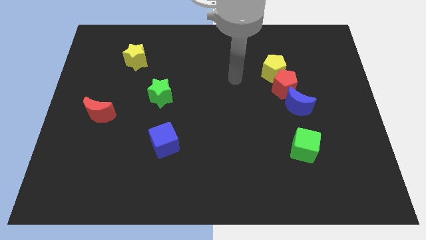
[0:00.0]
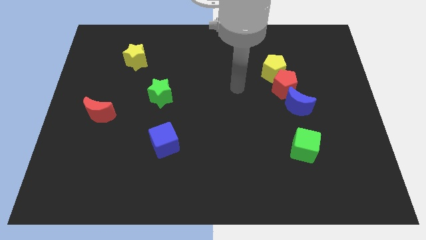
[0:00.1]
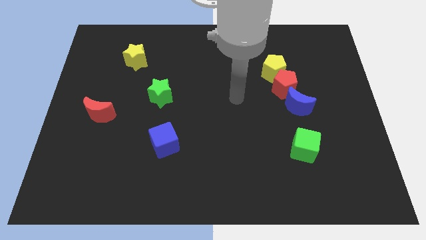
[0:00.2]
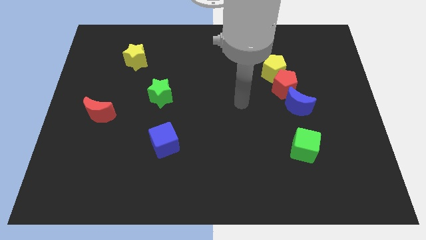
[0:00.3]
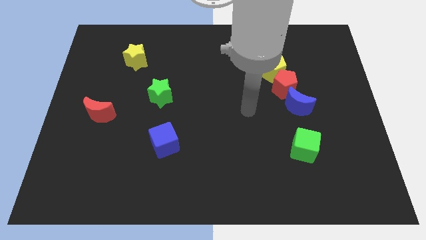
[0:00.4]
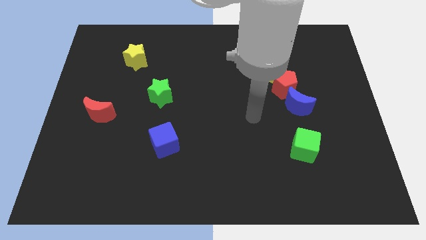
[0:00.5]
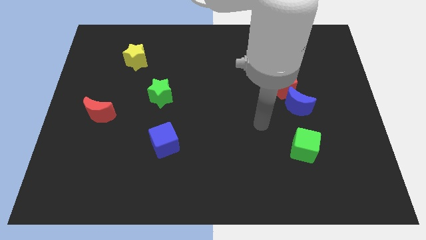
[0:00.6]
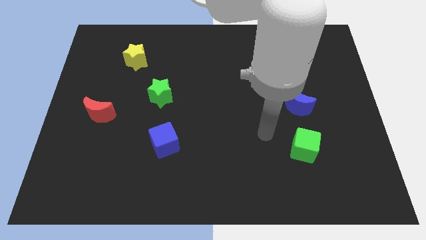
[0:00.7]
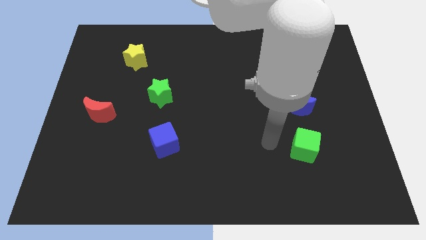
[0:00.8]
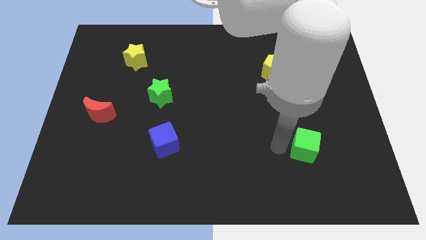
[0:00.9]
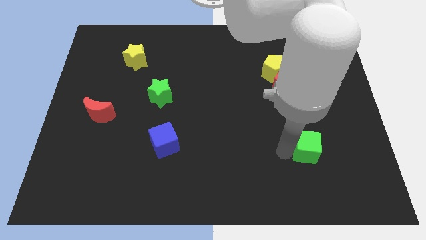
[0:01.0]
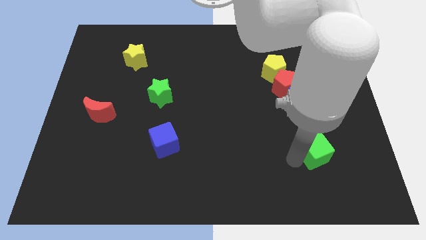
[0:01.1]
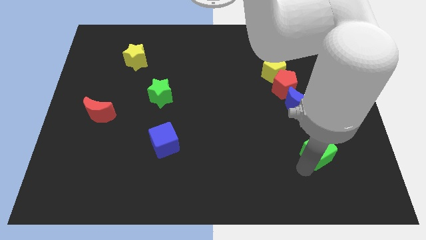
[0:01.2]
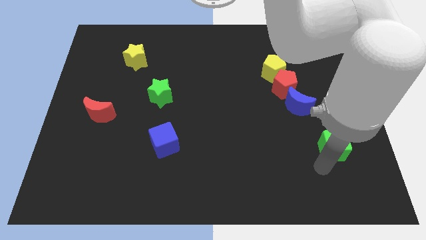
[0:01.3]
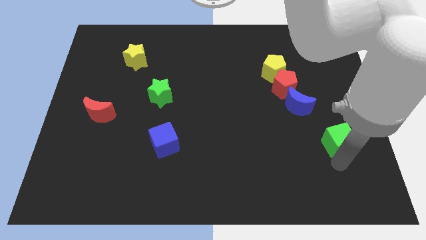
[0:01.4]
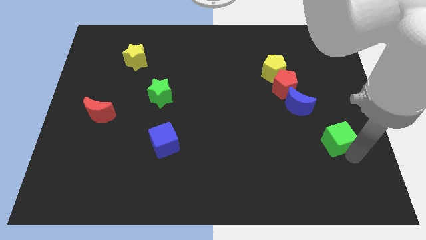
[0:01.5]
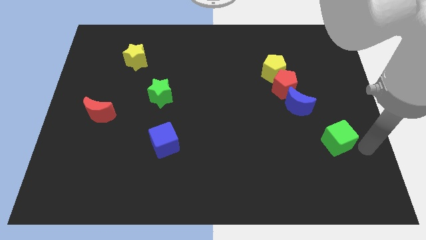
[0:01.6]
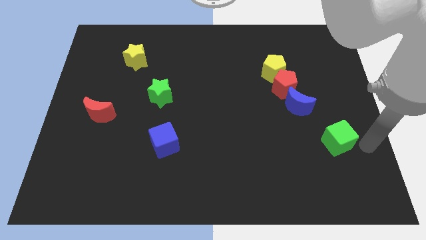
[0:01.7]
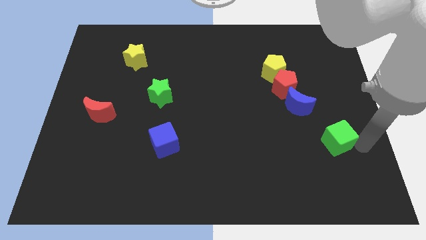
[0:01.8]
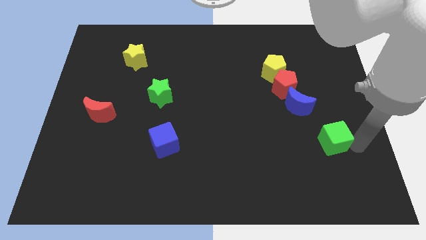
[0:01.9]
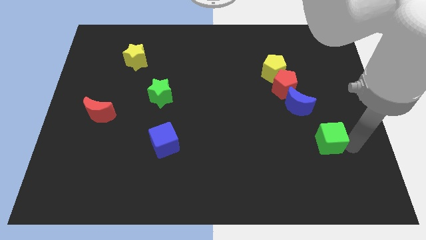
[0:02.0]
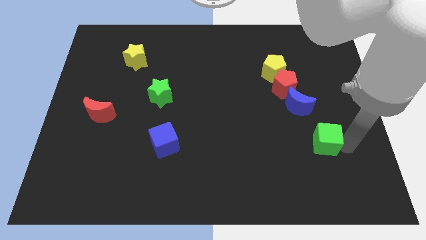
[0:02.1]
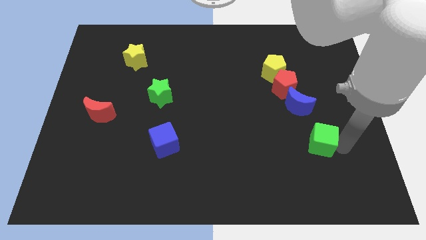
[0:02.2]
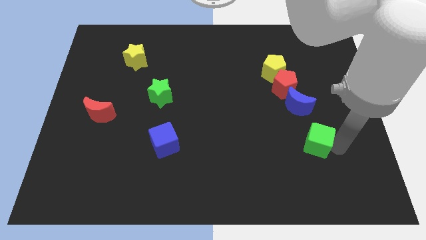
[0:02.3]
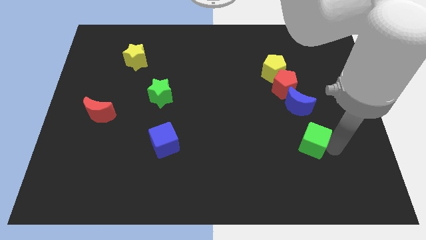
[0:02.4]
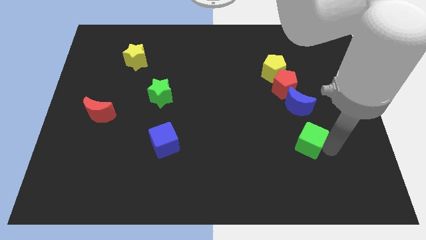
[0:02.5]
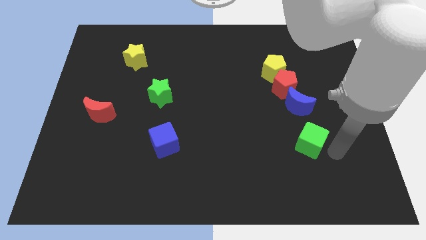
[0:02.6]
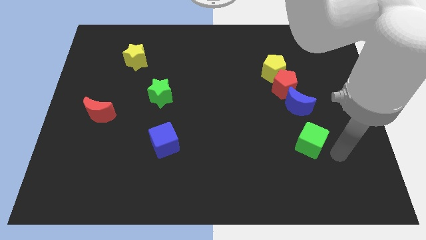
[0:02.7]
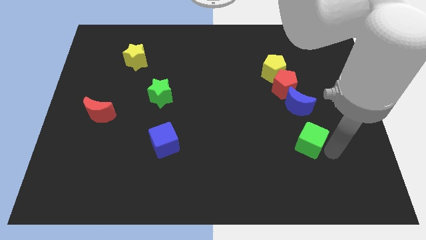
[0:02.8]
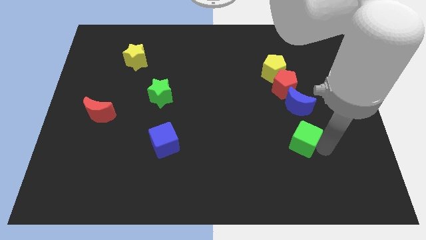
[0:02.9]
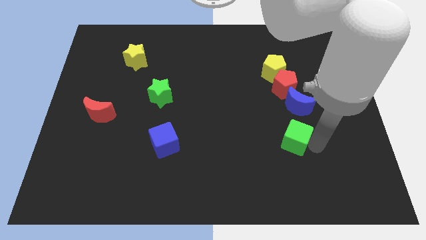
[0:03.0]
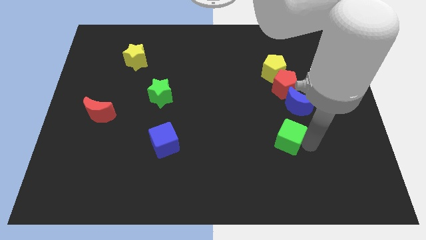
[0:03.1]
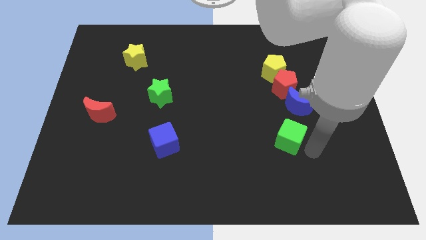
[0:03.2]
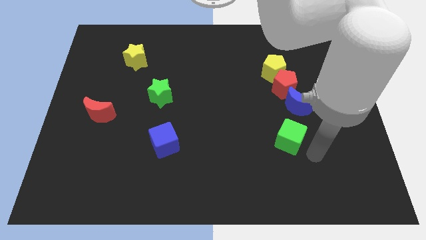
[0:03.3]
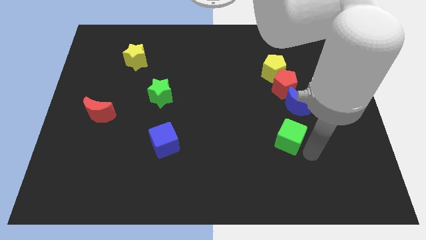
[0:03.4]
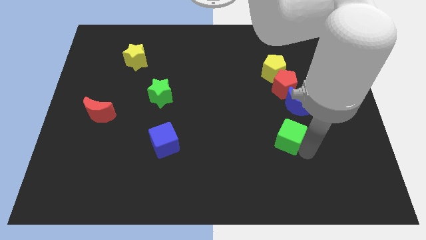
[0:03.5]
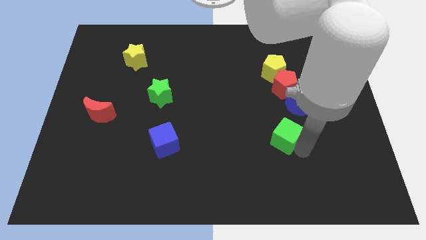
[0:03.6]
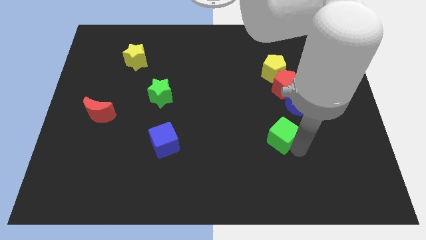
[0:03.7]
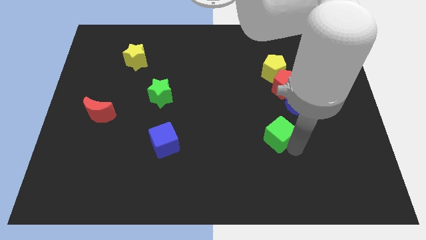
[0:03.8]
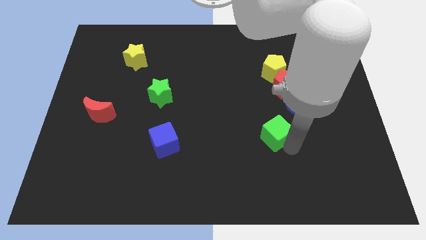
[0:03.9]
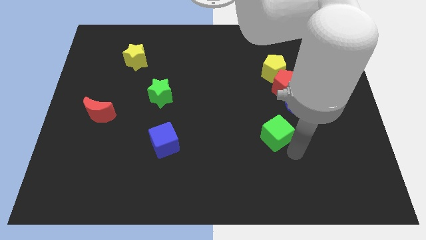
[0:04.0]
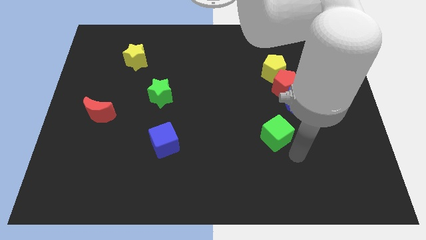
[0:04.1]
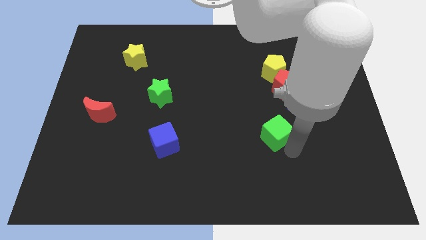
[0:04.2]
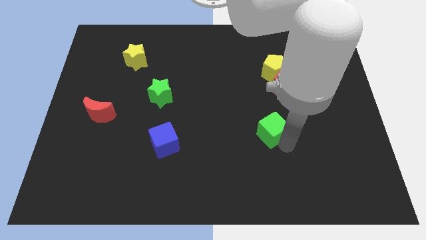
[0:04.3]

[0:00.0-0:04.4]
slide the green cube upwards and then to the left a little

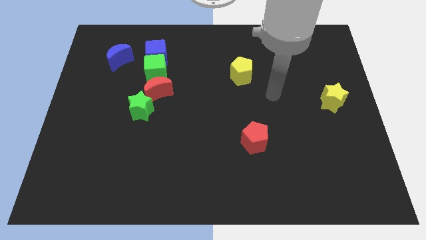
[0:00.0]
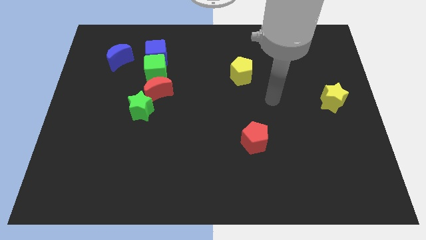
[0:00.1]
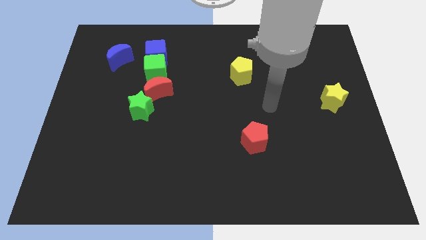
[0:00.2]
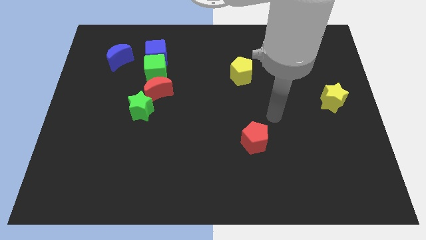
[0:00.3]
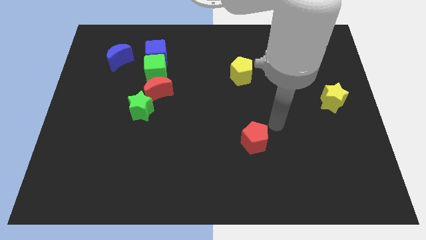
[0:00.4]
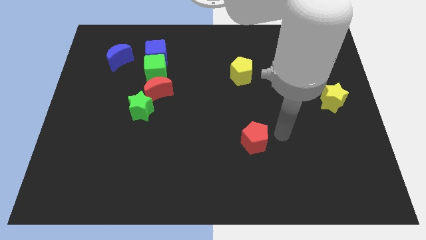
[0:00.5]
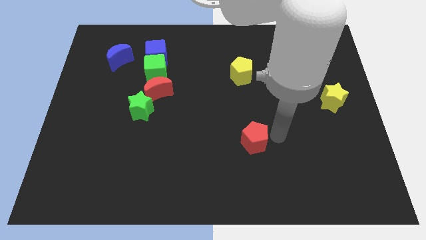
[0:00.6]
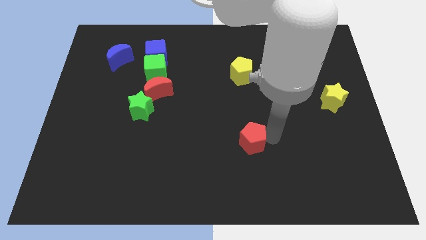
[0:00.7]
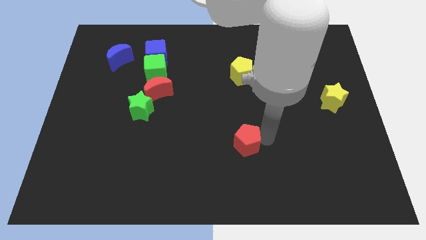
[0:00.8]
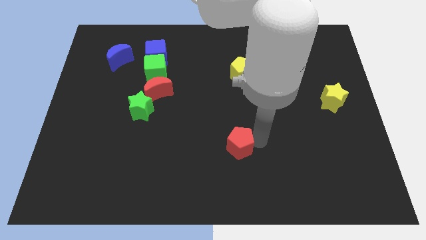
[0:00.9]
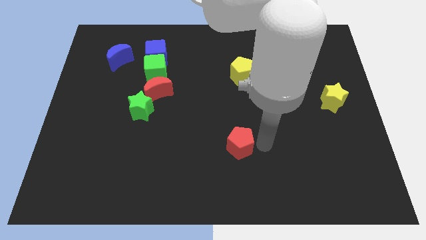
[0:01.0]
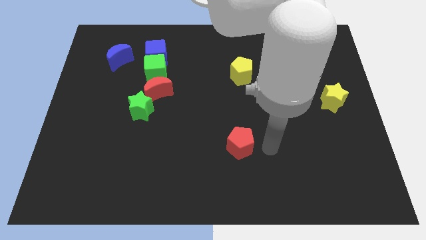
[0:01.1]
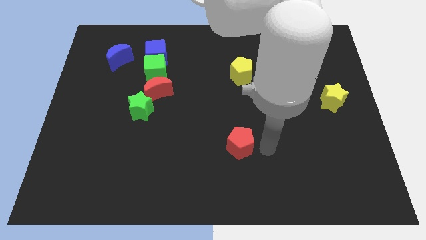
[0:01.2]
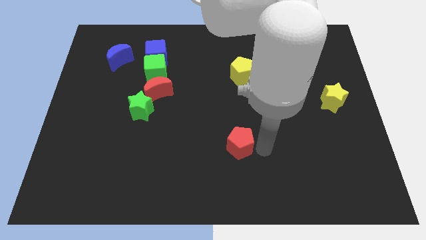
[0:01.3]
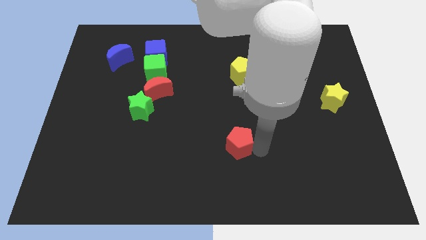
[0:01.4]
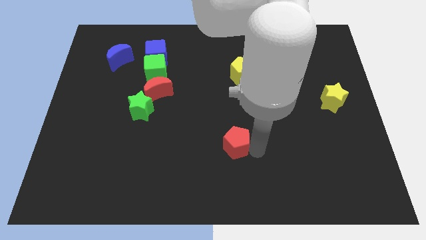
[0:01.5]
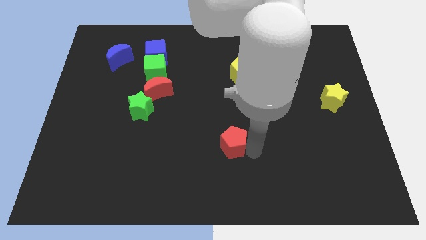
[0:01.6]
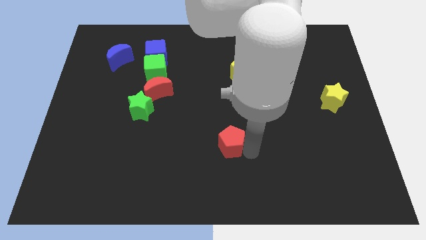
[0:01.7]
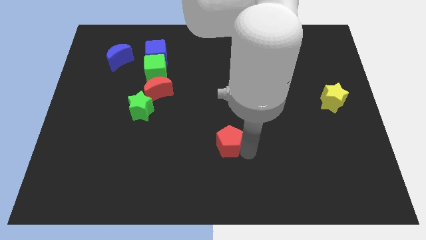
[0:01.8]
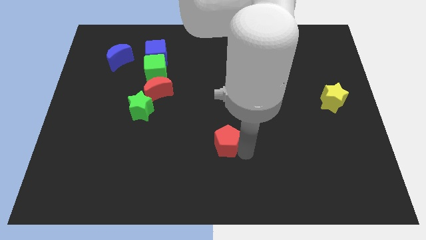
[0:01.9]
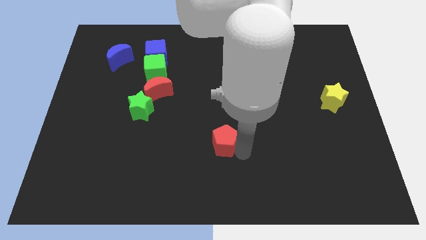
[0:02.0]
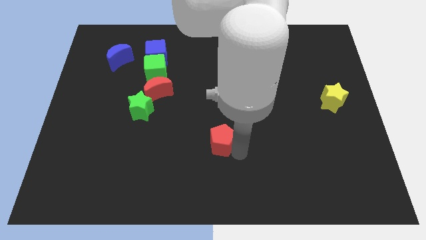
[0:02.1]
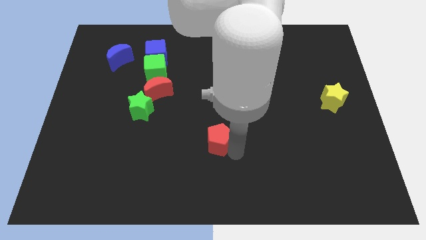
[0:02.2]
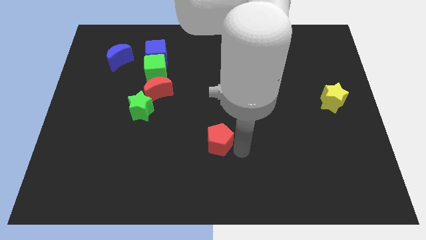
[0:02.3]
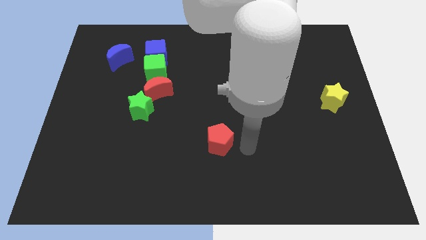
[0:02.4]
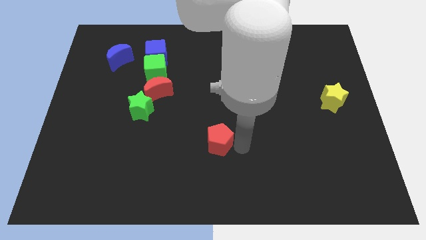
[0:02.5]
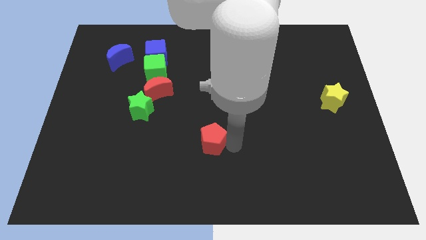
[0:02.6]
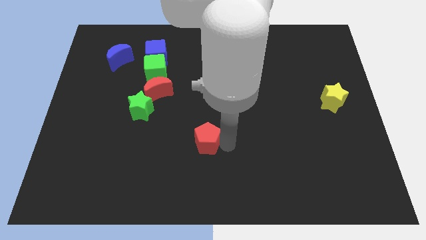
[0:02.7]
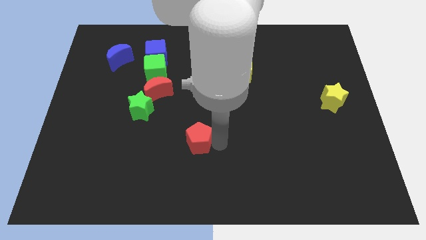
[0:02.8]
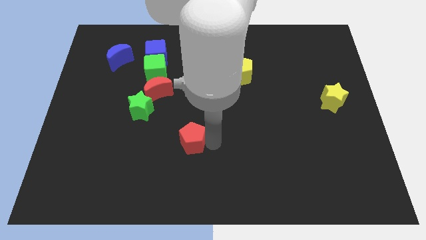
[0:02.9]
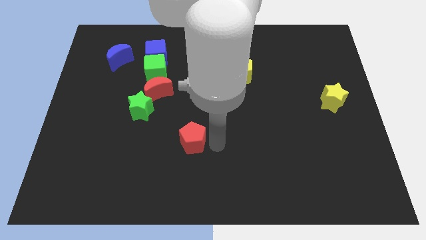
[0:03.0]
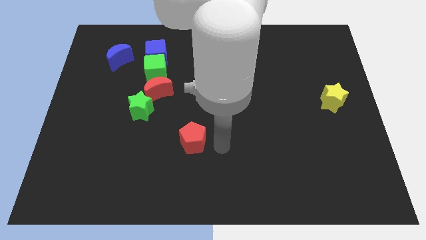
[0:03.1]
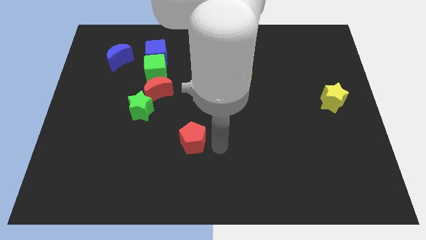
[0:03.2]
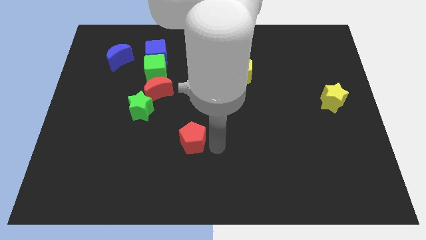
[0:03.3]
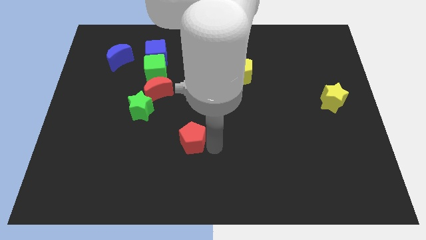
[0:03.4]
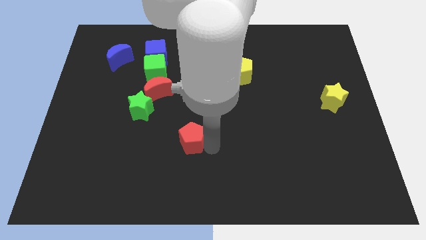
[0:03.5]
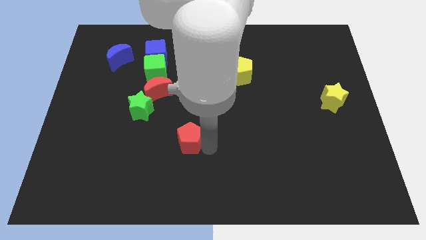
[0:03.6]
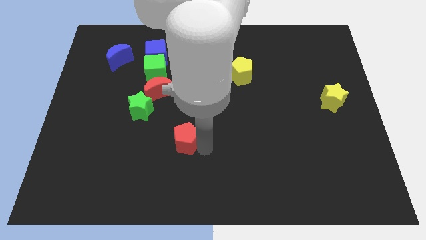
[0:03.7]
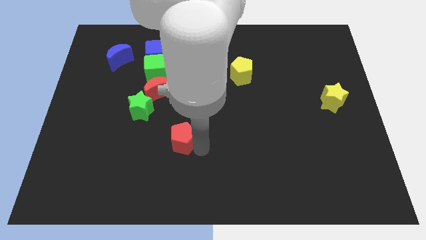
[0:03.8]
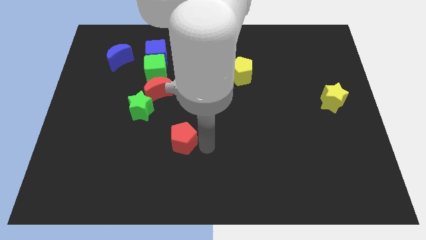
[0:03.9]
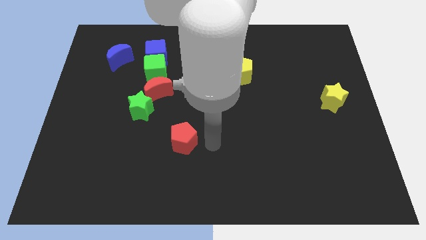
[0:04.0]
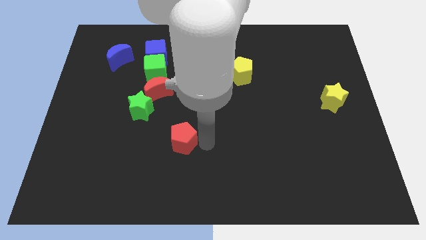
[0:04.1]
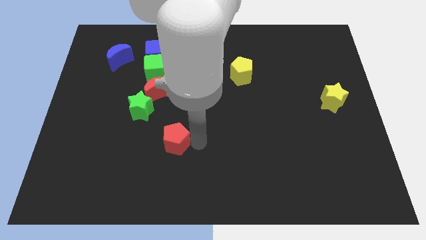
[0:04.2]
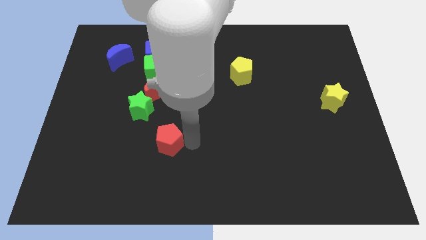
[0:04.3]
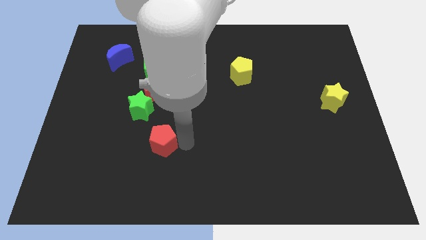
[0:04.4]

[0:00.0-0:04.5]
move the red pentagon to the left
